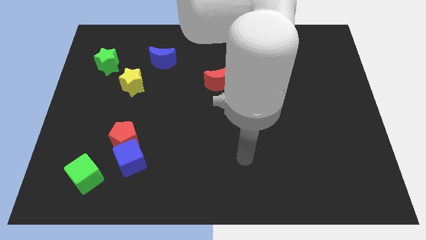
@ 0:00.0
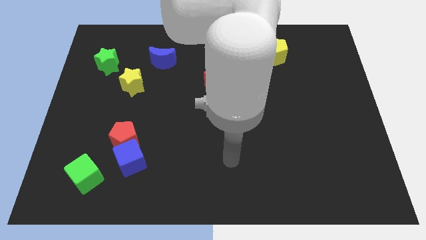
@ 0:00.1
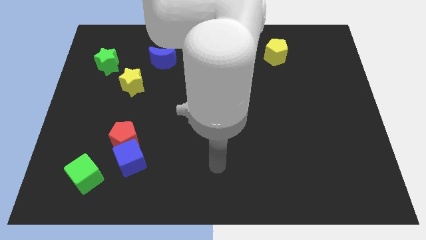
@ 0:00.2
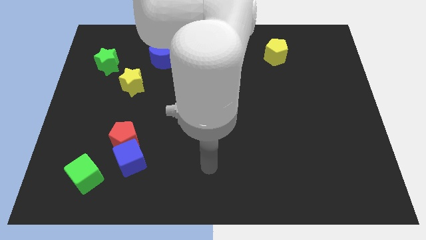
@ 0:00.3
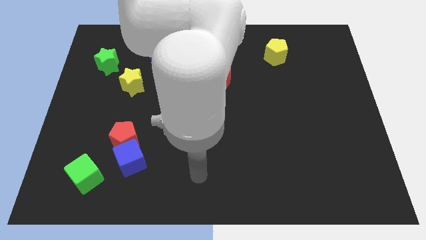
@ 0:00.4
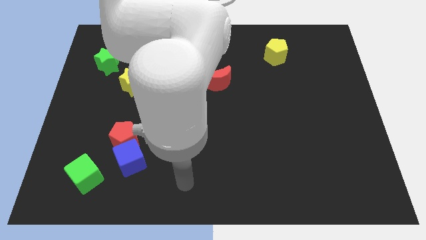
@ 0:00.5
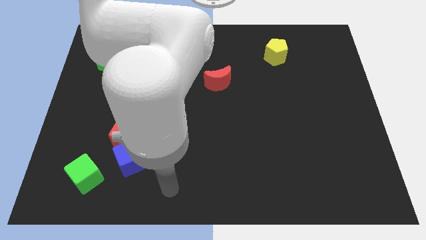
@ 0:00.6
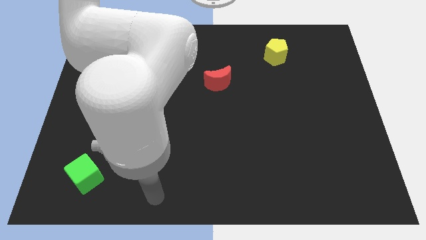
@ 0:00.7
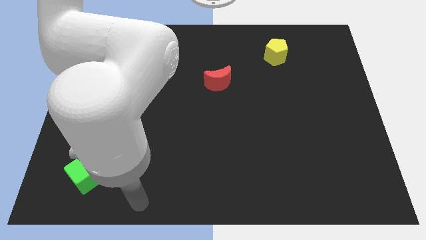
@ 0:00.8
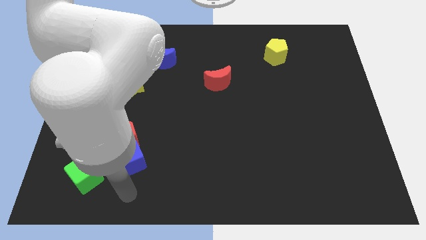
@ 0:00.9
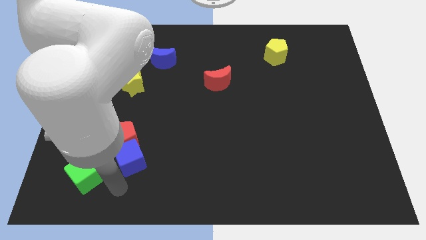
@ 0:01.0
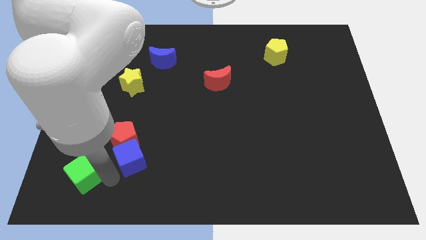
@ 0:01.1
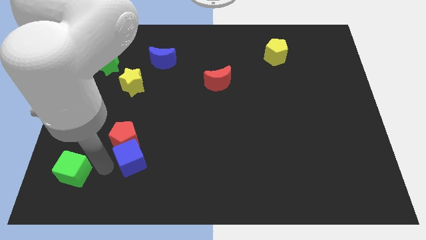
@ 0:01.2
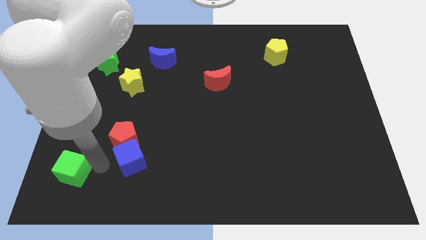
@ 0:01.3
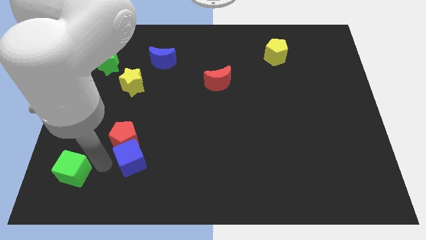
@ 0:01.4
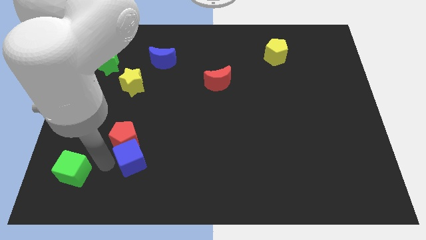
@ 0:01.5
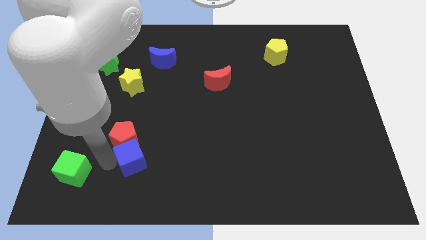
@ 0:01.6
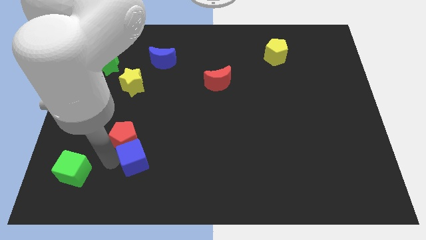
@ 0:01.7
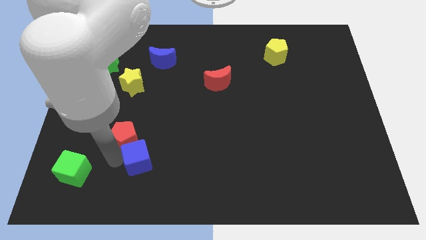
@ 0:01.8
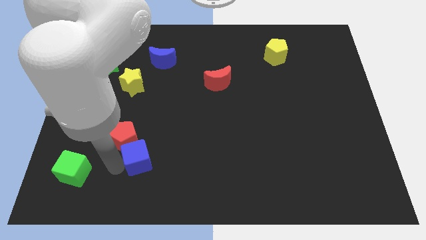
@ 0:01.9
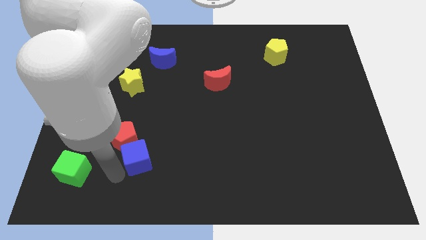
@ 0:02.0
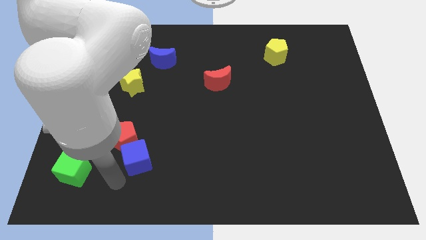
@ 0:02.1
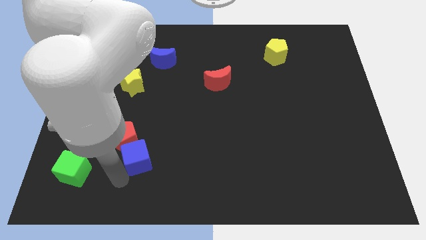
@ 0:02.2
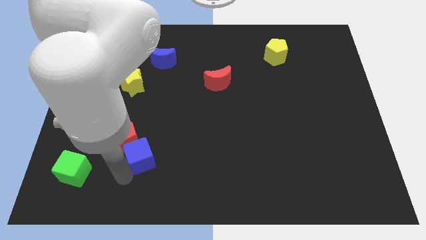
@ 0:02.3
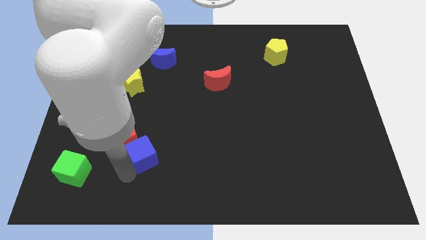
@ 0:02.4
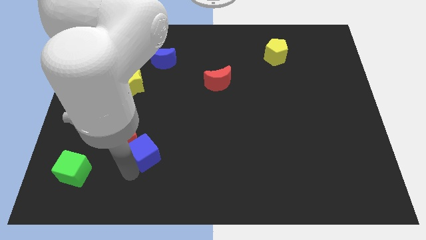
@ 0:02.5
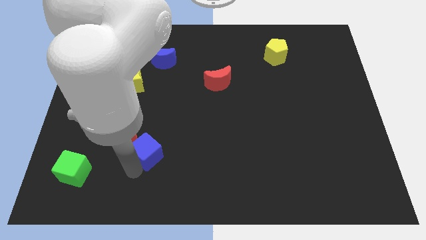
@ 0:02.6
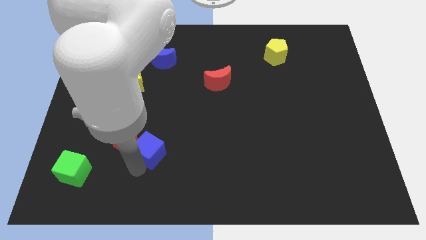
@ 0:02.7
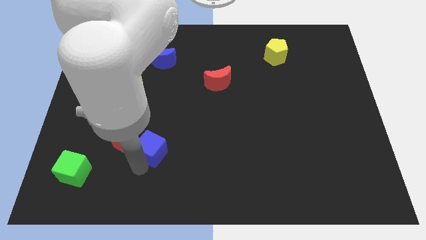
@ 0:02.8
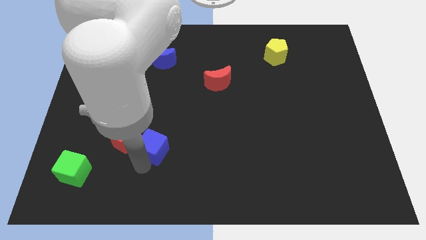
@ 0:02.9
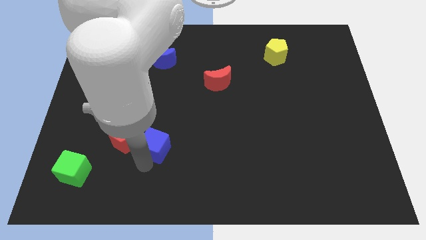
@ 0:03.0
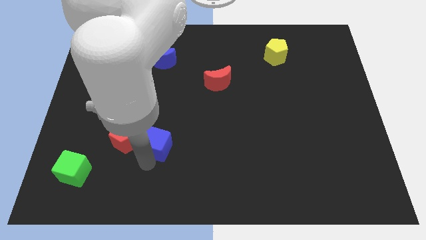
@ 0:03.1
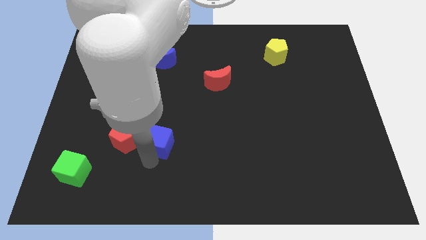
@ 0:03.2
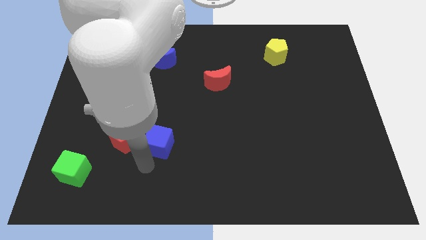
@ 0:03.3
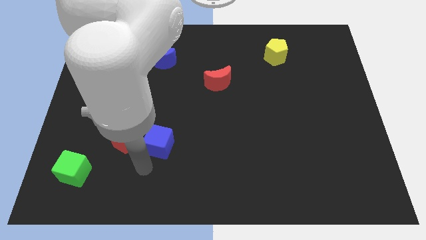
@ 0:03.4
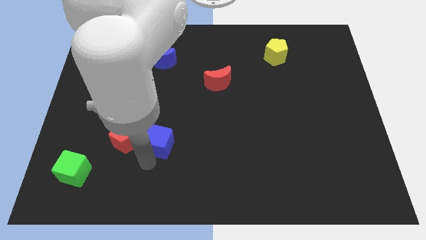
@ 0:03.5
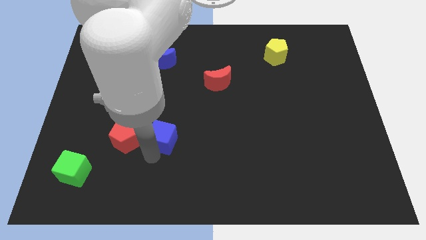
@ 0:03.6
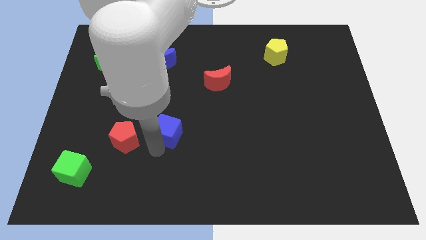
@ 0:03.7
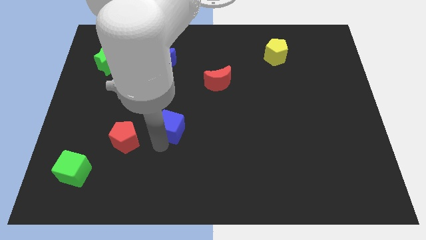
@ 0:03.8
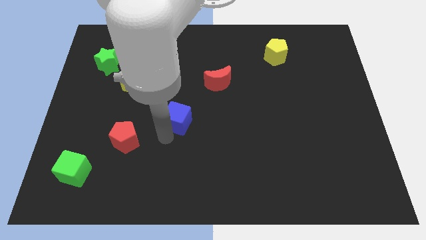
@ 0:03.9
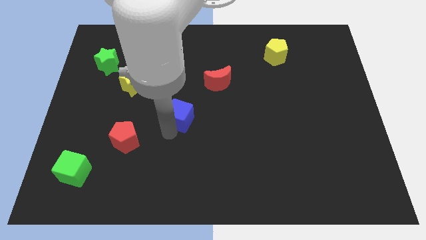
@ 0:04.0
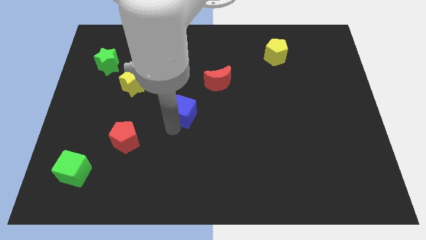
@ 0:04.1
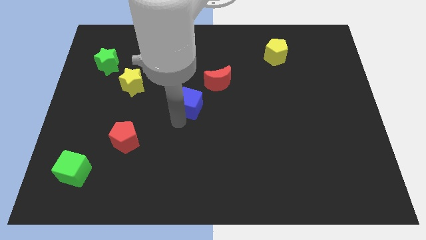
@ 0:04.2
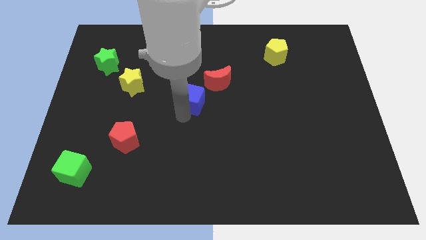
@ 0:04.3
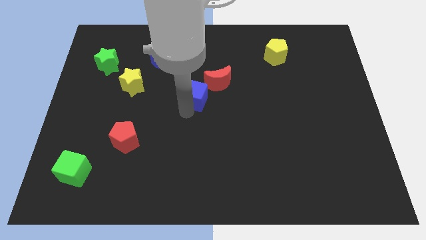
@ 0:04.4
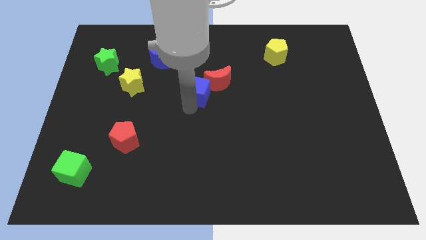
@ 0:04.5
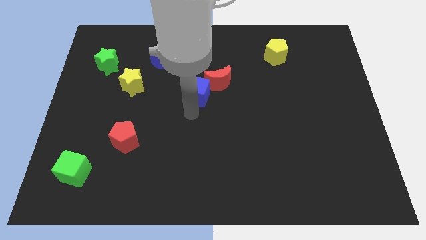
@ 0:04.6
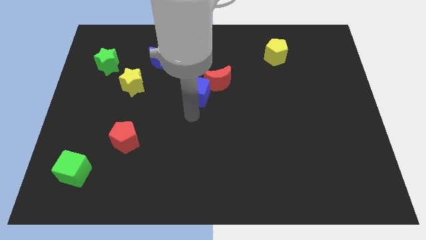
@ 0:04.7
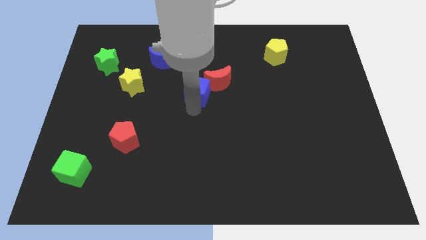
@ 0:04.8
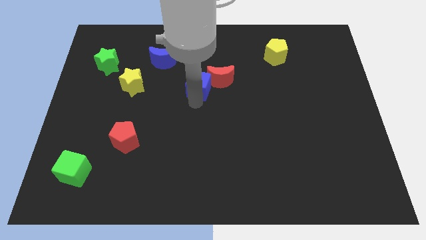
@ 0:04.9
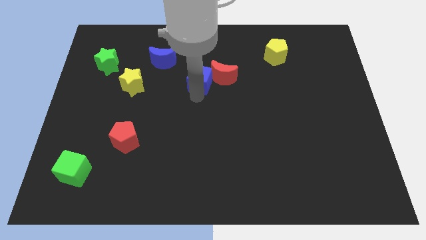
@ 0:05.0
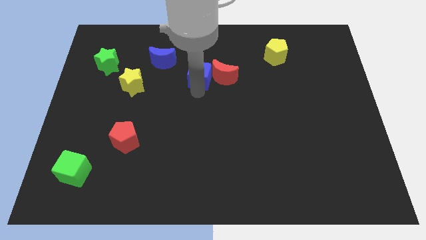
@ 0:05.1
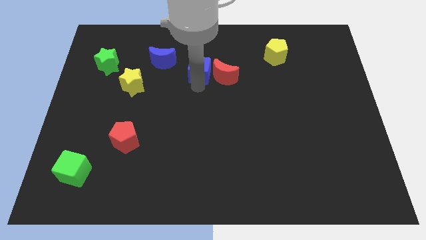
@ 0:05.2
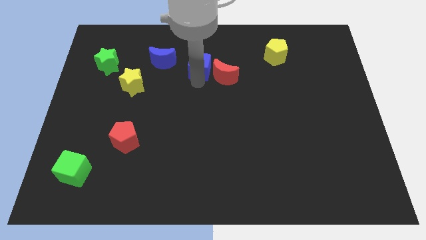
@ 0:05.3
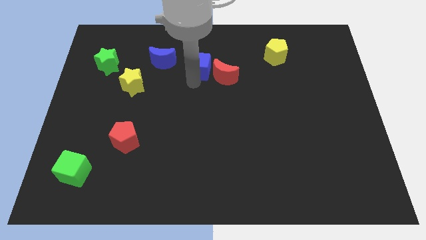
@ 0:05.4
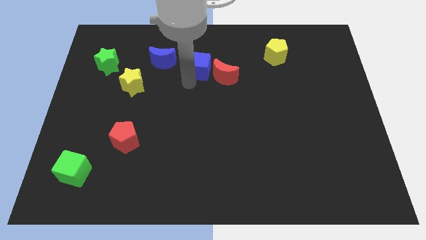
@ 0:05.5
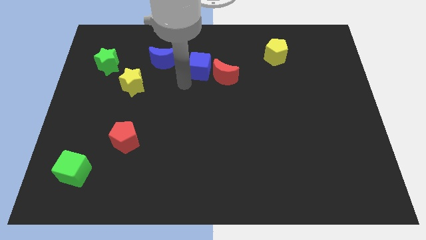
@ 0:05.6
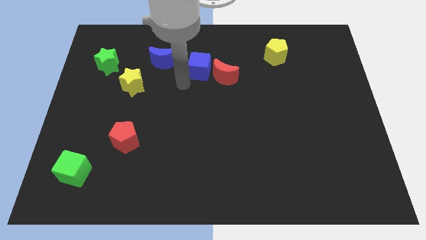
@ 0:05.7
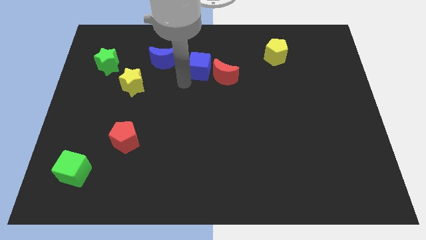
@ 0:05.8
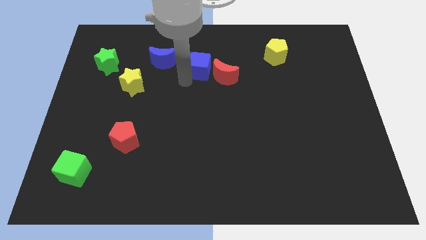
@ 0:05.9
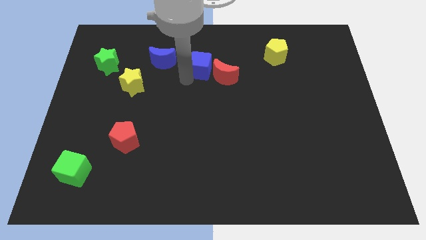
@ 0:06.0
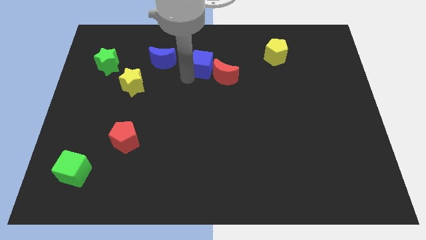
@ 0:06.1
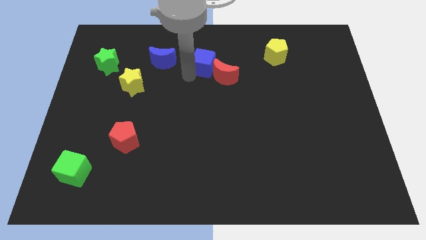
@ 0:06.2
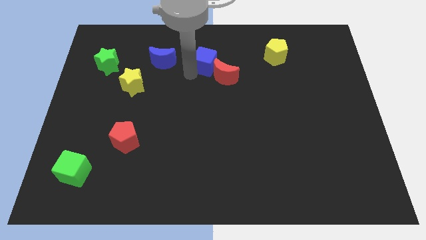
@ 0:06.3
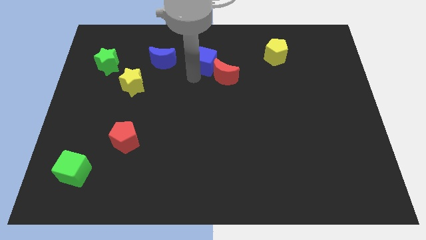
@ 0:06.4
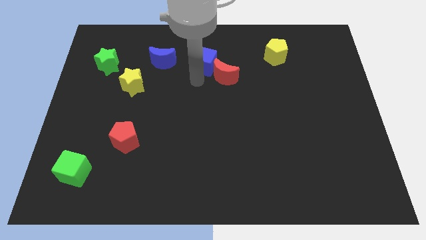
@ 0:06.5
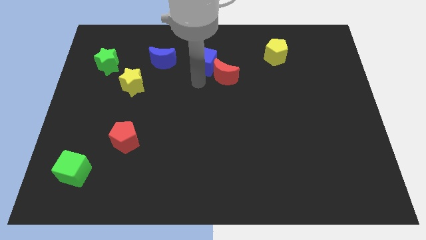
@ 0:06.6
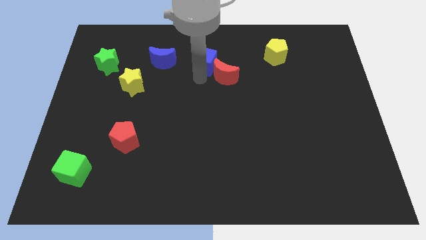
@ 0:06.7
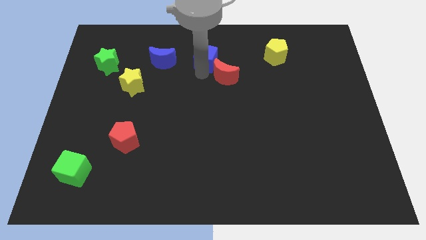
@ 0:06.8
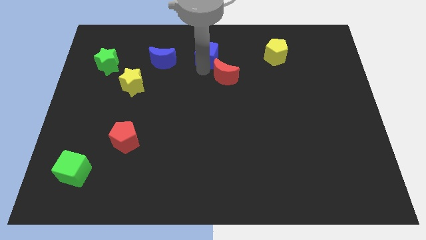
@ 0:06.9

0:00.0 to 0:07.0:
push the blue cube to the towards your base

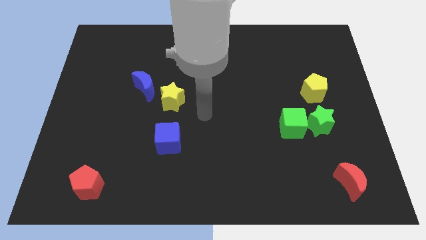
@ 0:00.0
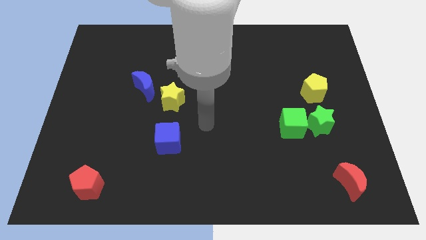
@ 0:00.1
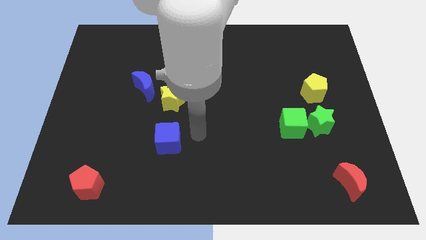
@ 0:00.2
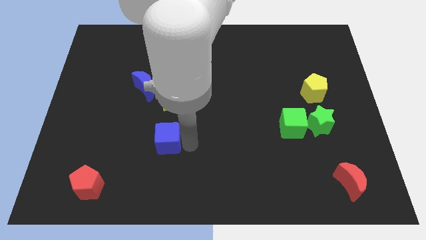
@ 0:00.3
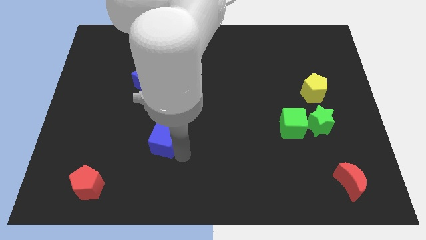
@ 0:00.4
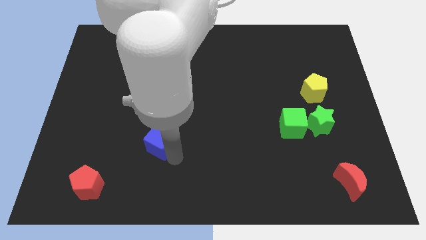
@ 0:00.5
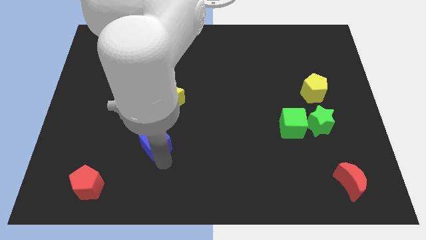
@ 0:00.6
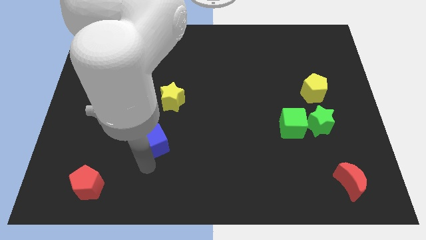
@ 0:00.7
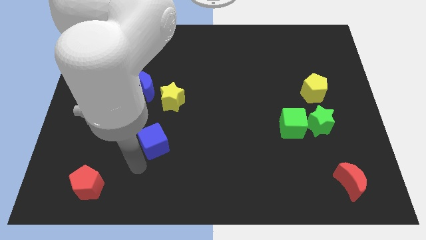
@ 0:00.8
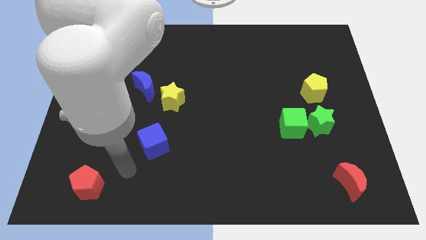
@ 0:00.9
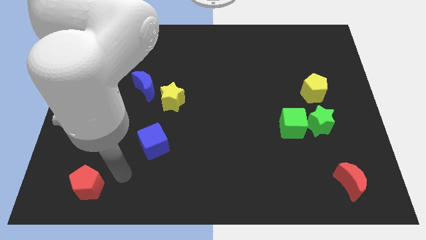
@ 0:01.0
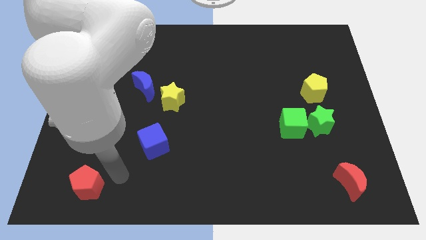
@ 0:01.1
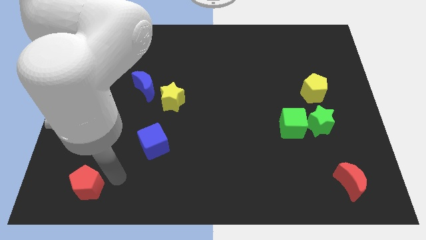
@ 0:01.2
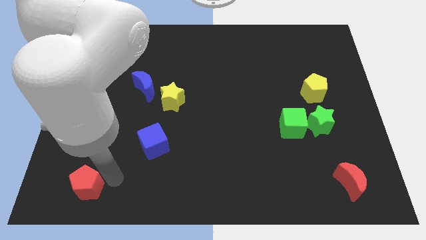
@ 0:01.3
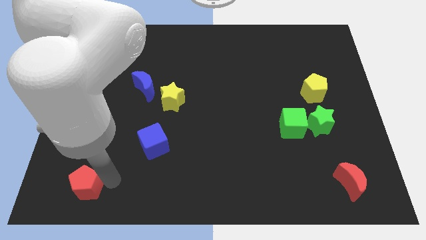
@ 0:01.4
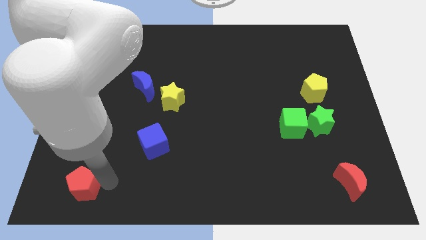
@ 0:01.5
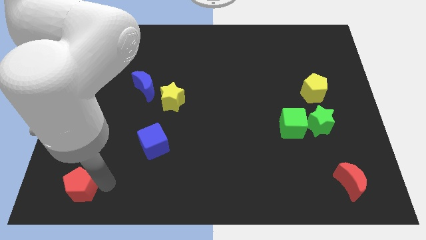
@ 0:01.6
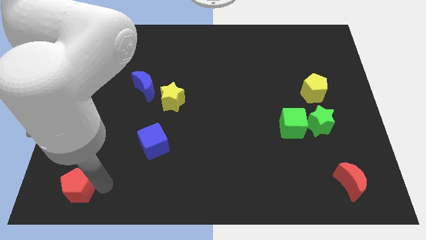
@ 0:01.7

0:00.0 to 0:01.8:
slide the red pentagon to the bottom left of the board
